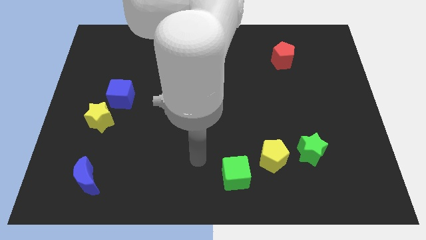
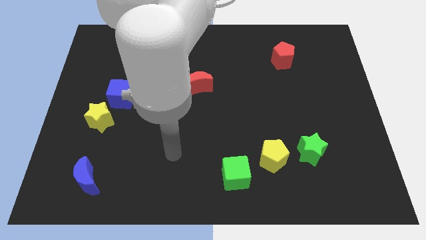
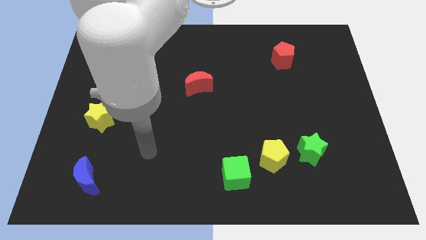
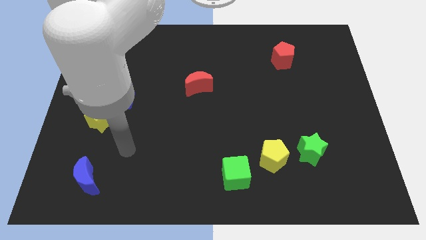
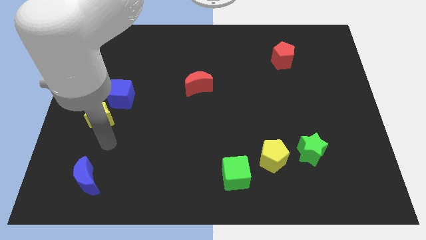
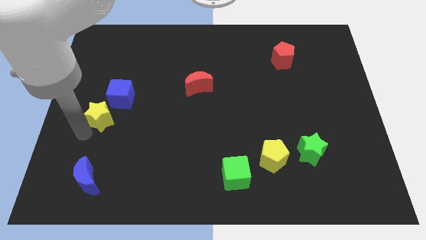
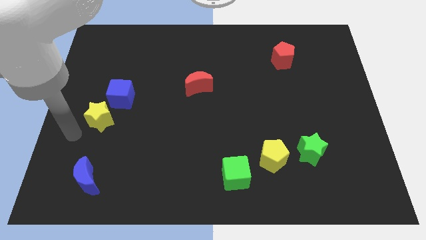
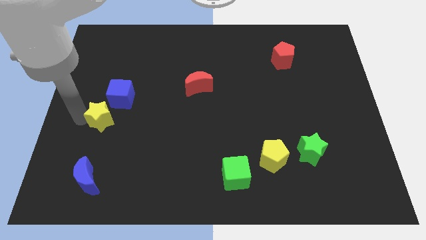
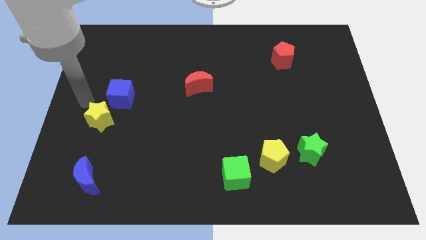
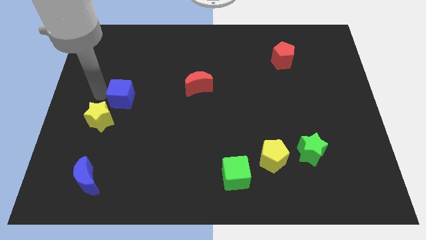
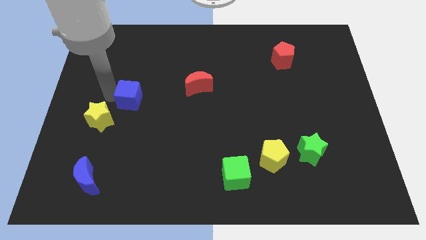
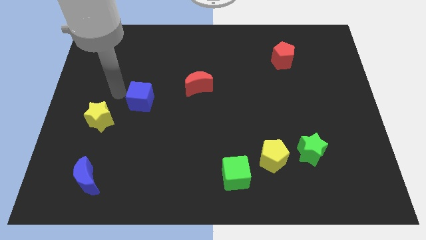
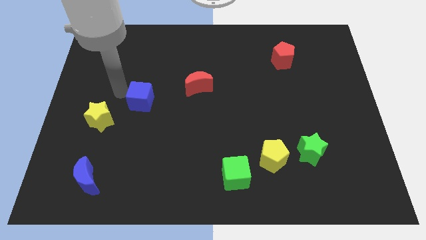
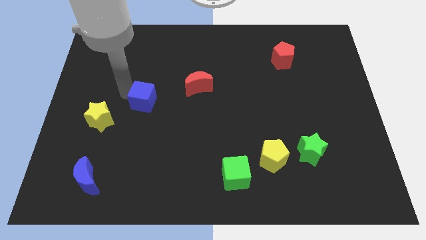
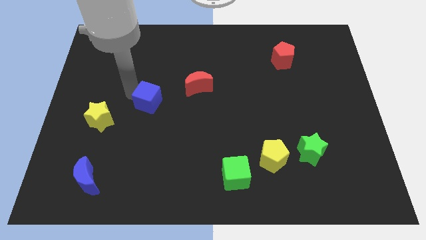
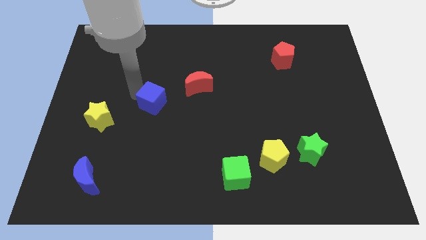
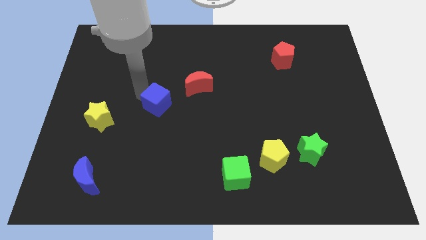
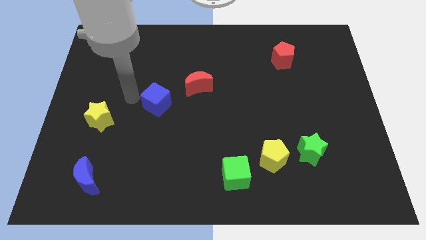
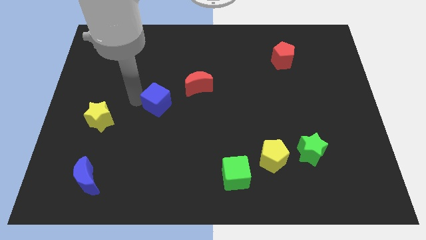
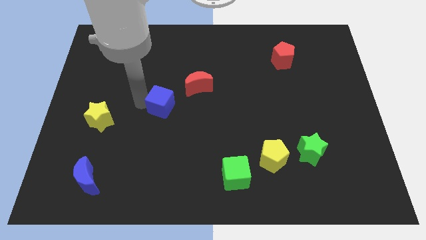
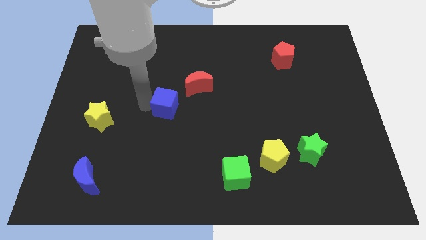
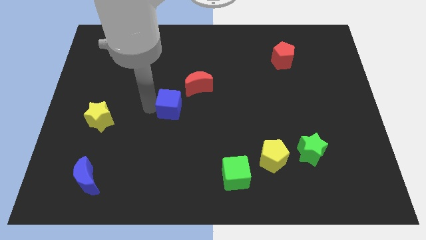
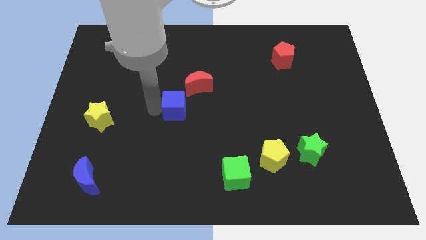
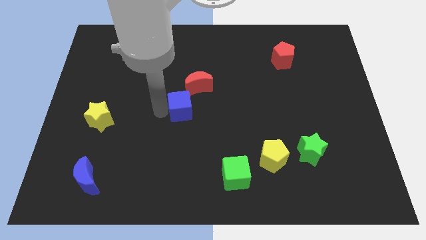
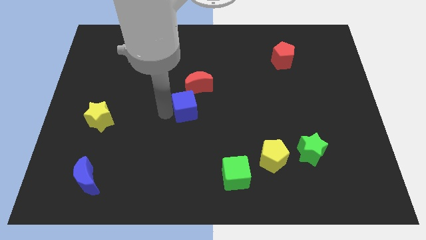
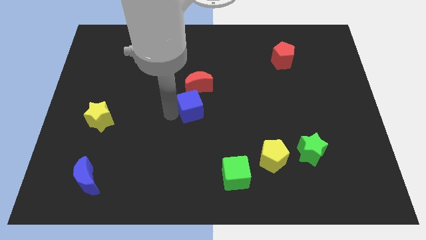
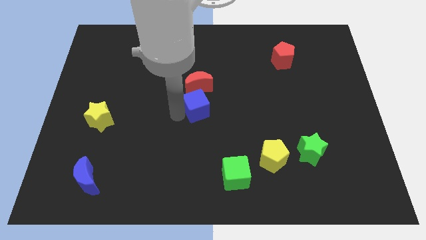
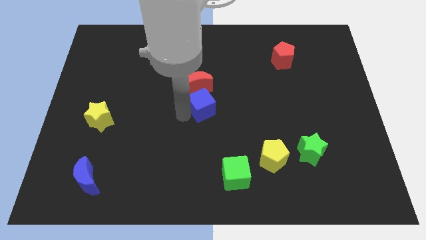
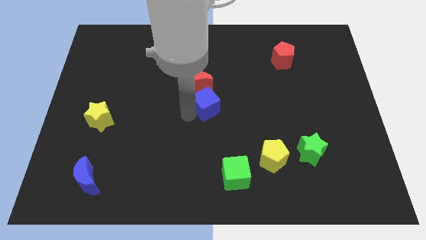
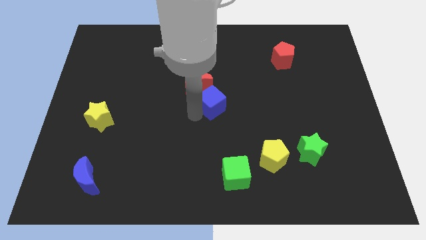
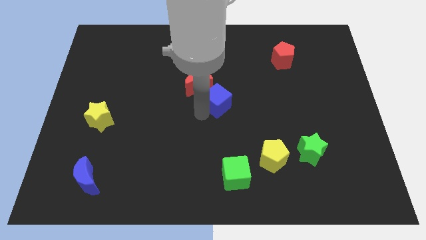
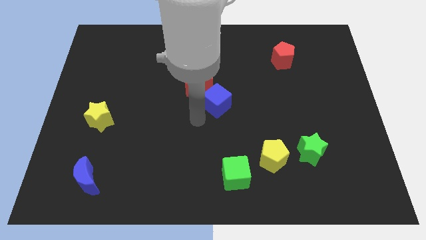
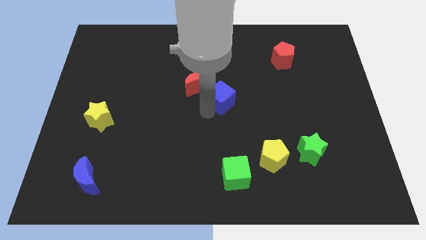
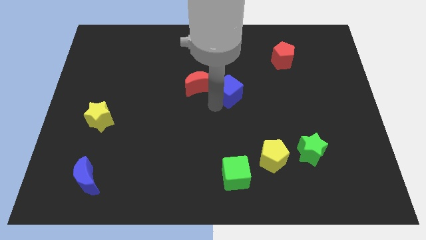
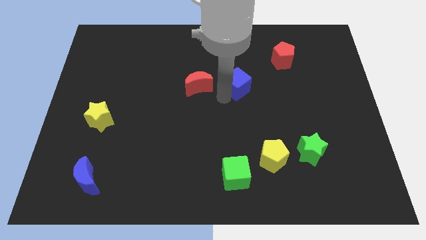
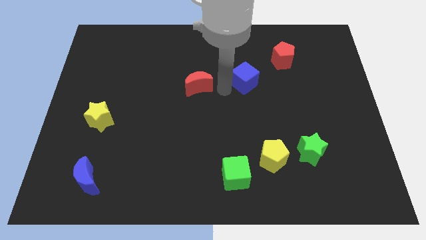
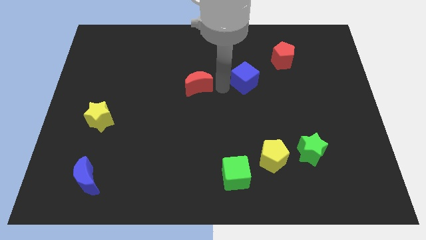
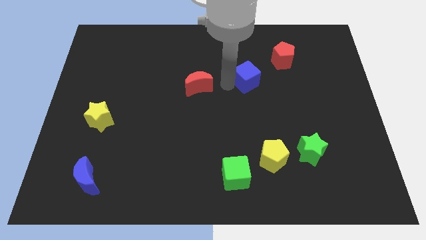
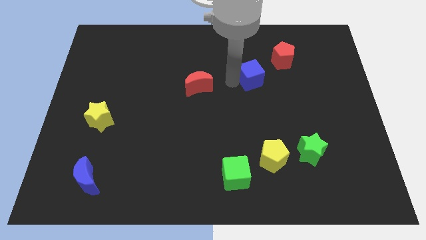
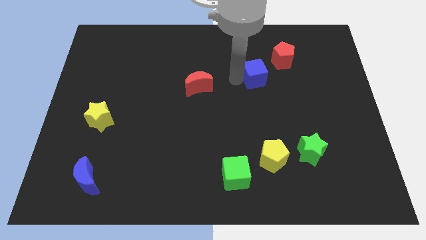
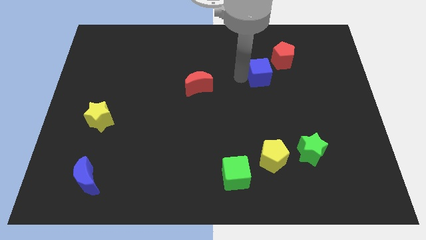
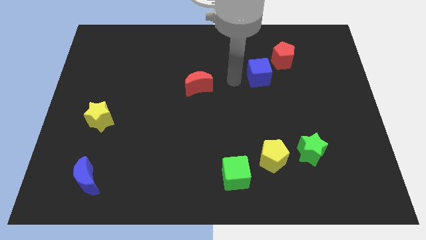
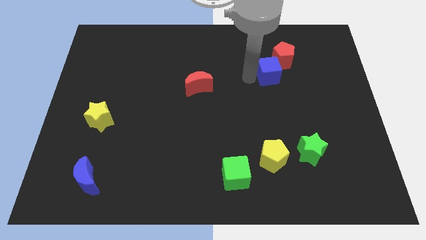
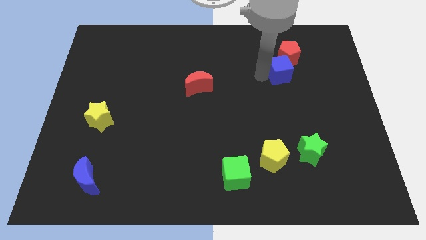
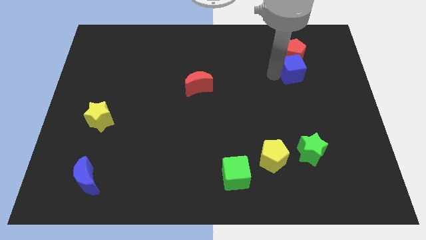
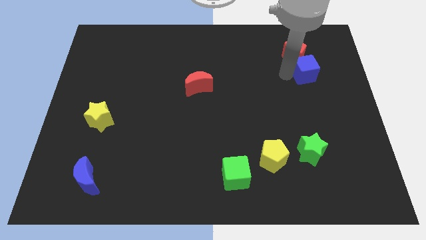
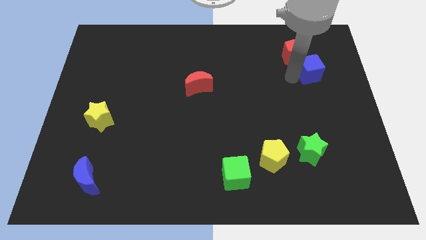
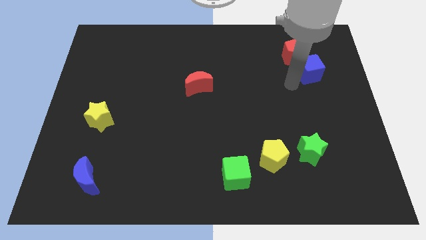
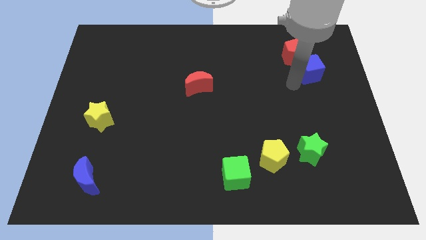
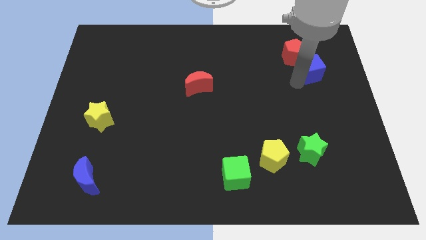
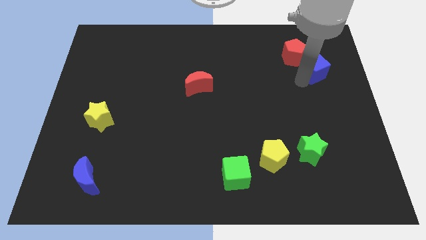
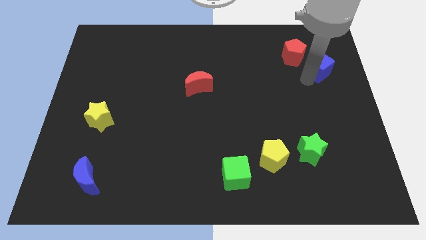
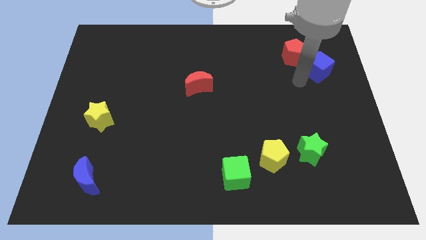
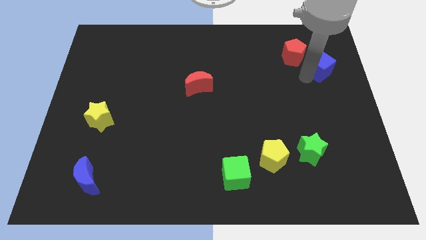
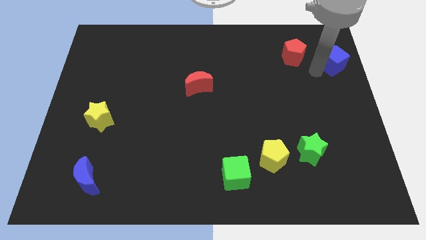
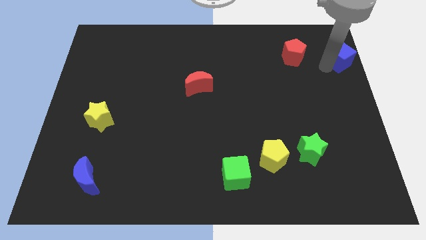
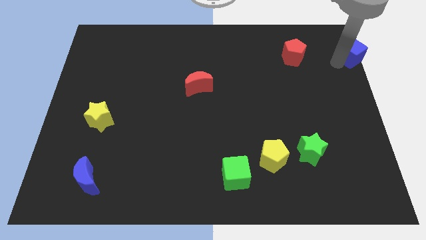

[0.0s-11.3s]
move the blue cube to the top right corner

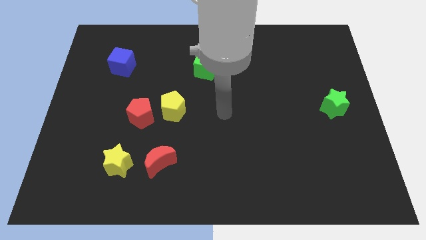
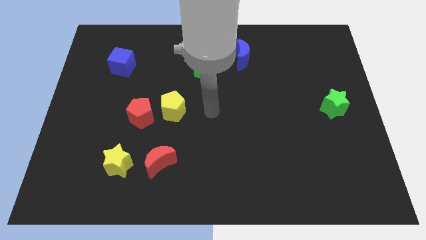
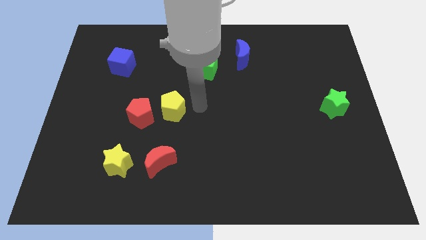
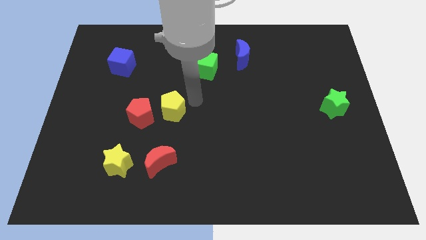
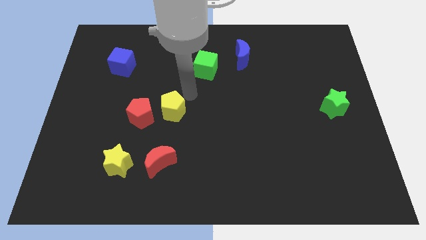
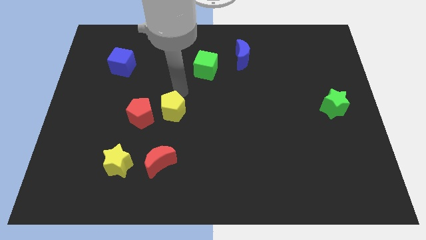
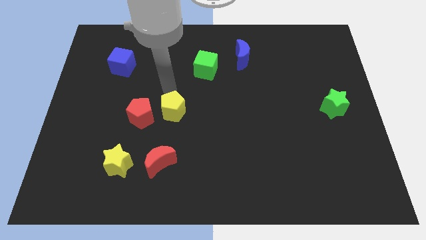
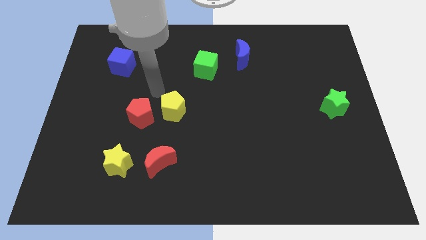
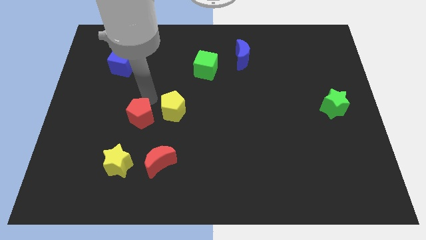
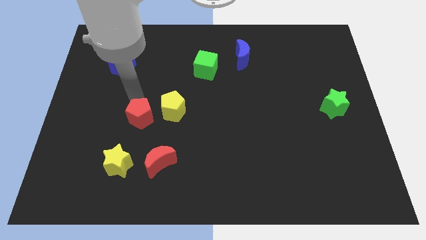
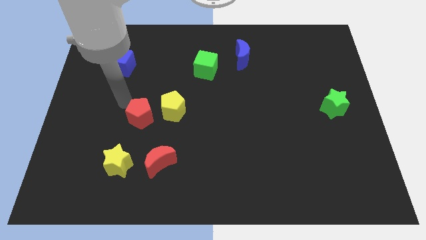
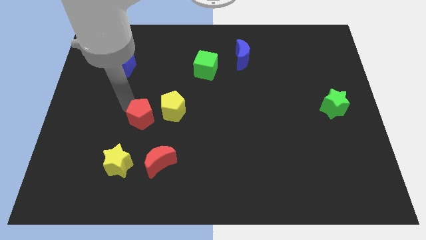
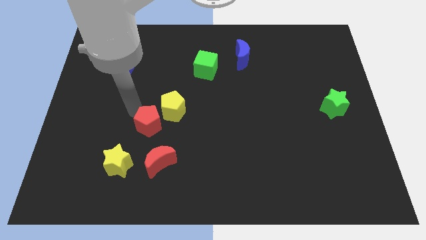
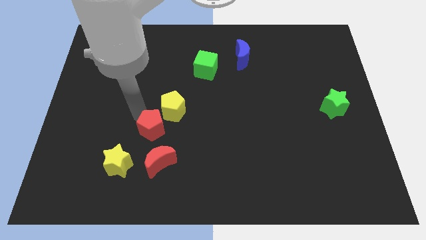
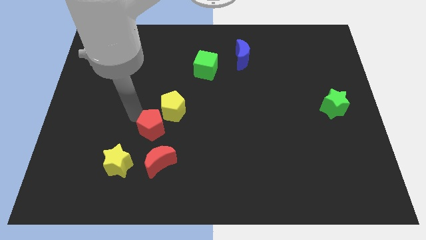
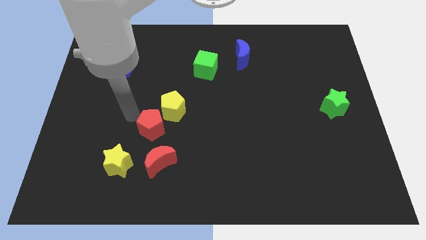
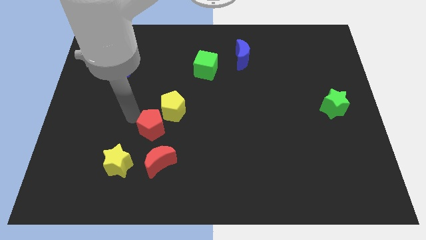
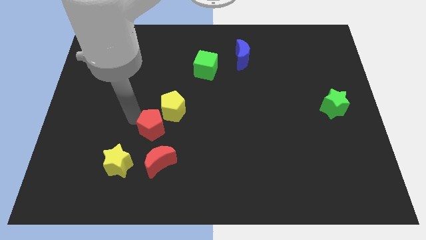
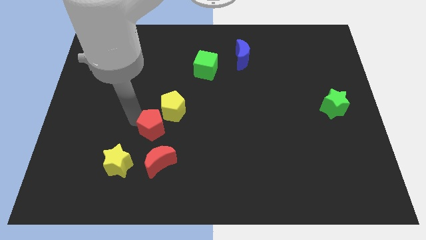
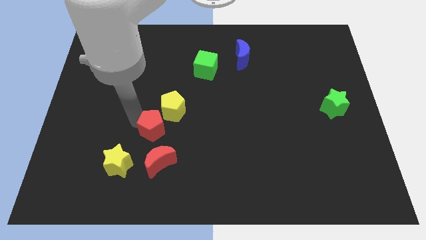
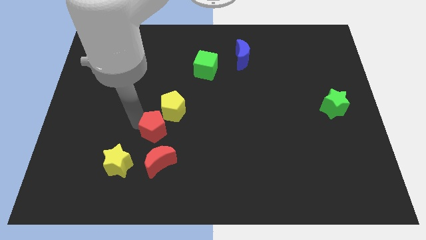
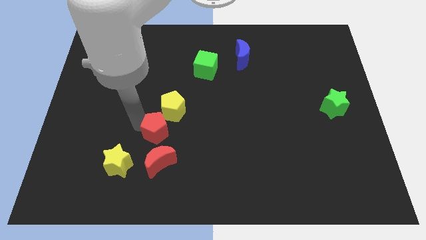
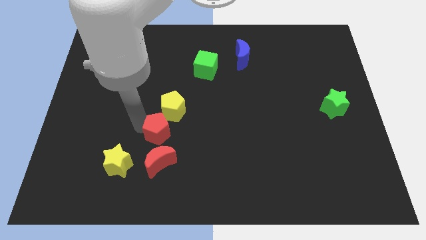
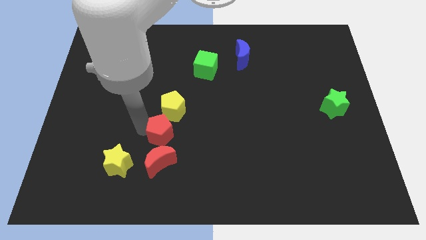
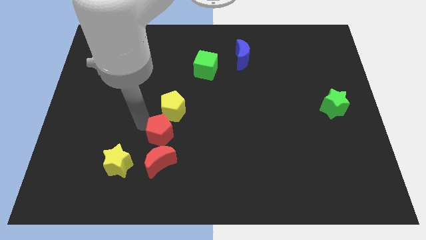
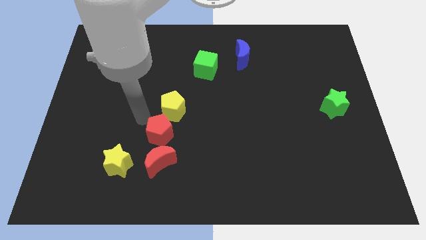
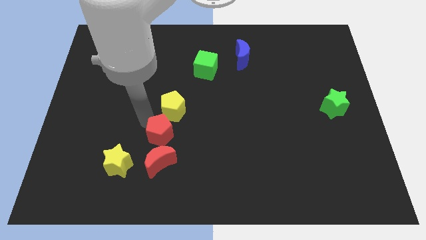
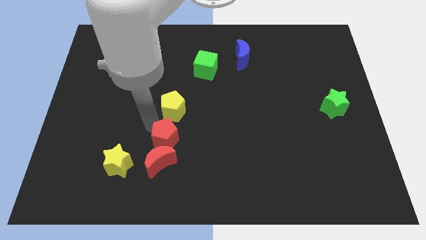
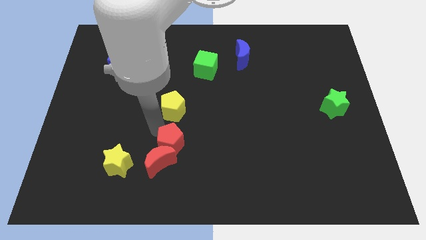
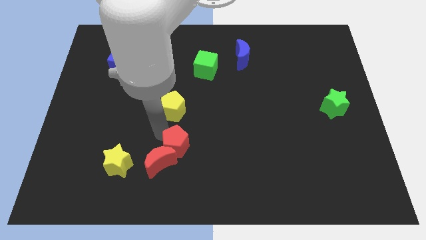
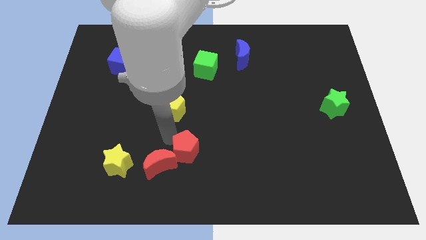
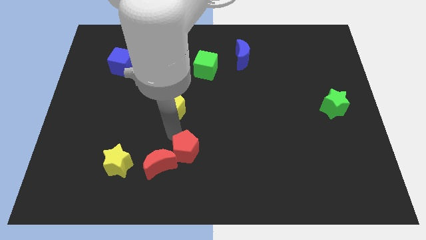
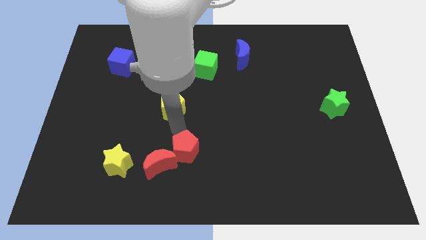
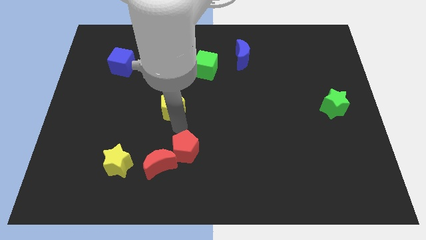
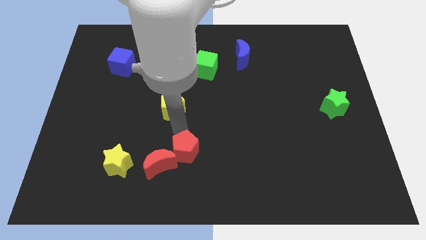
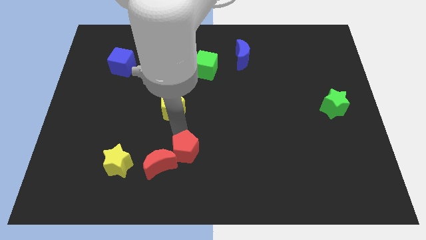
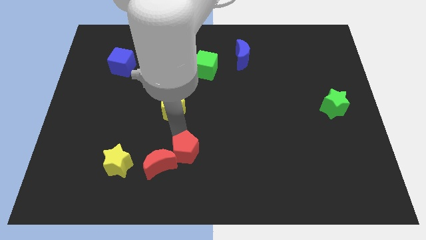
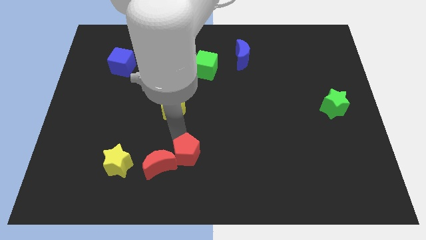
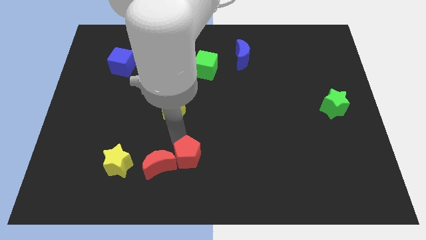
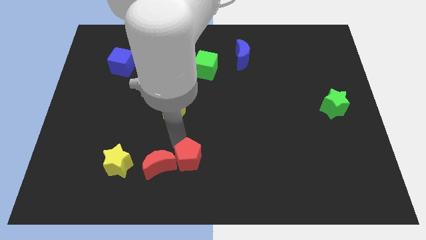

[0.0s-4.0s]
put the red pentagon to the bottom
